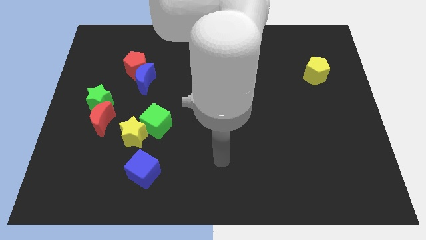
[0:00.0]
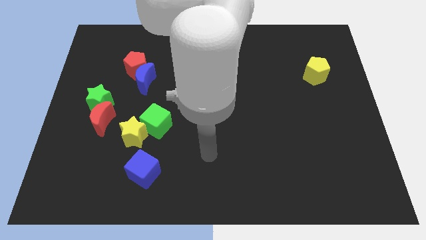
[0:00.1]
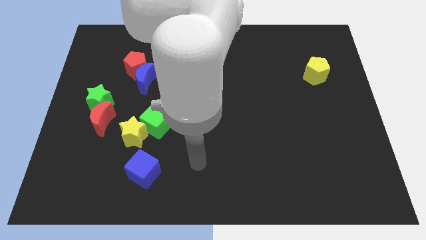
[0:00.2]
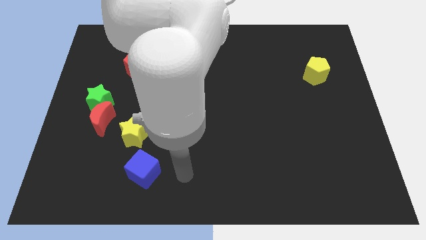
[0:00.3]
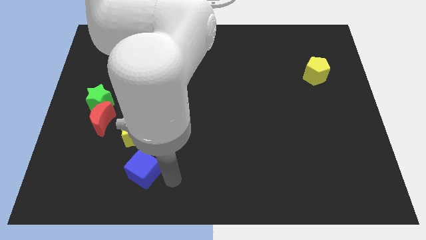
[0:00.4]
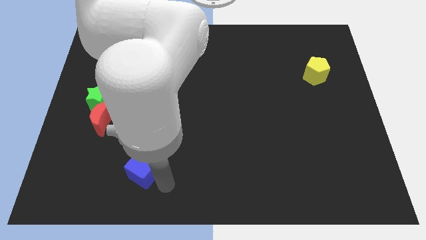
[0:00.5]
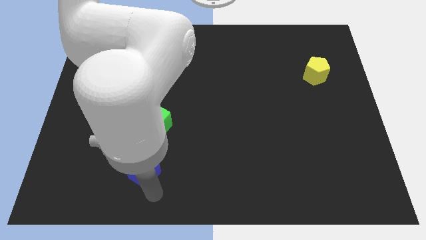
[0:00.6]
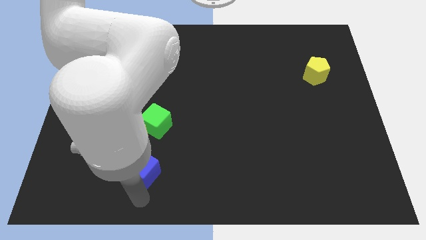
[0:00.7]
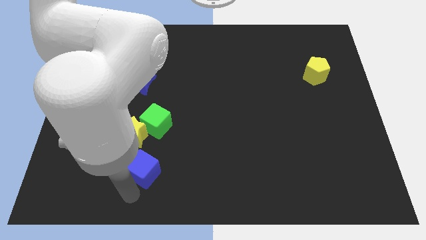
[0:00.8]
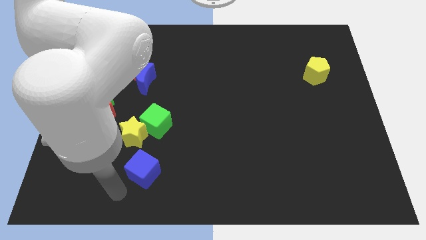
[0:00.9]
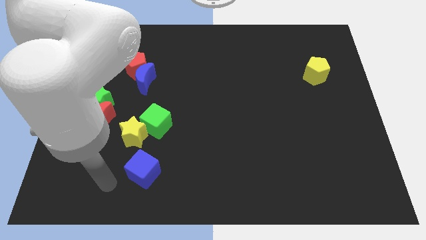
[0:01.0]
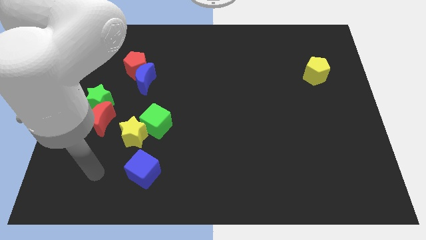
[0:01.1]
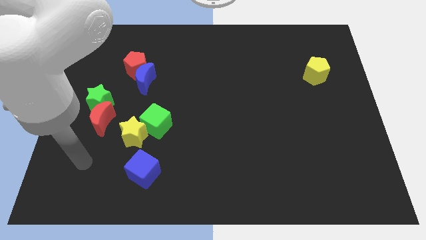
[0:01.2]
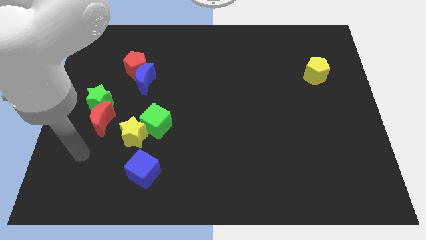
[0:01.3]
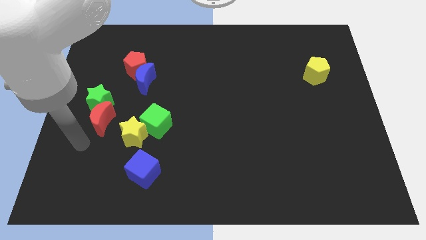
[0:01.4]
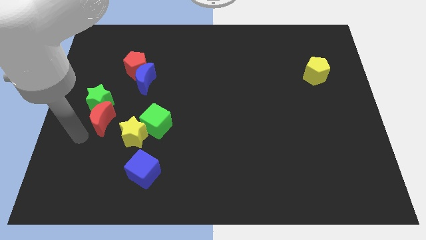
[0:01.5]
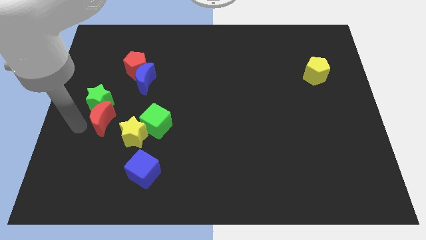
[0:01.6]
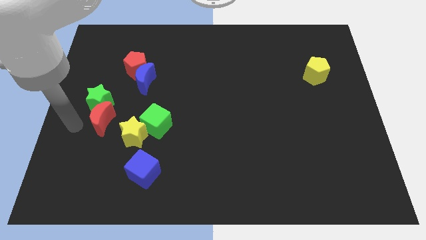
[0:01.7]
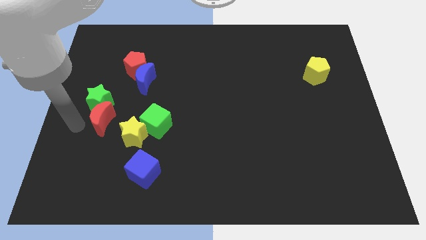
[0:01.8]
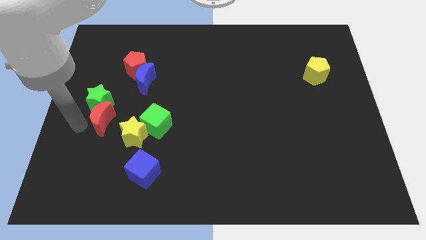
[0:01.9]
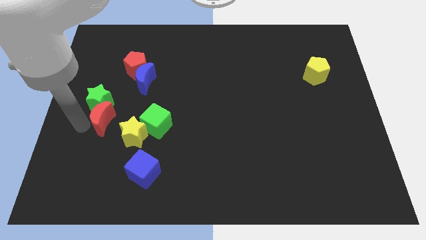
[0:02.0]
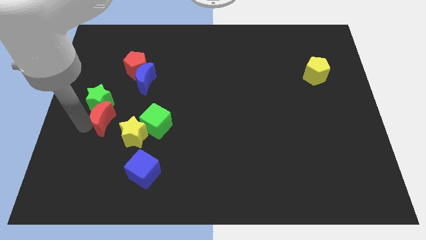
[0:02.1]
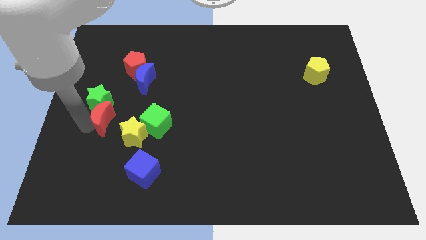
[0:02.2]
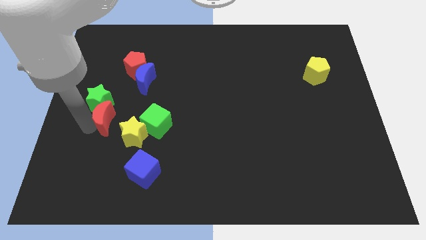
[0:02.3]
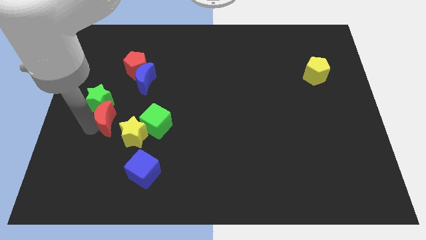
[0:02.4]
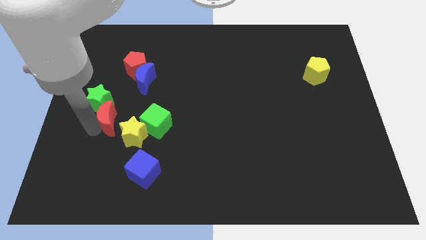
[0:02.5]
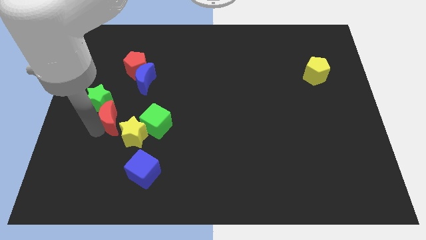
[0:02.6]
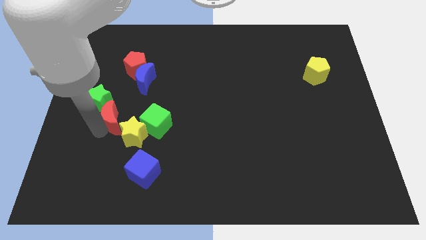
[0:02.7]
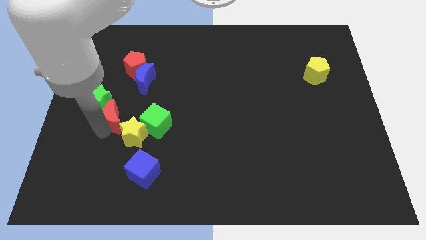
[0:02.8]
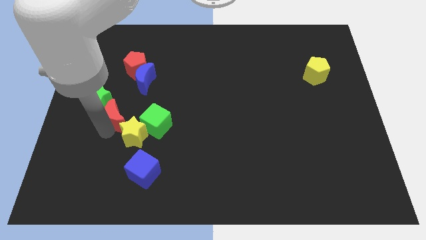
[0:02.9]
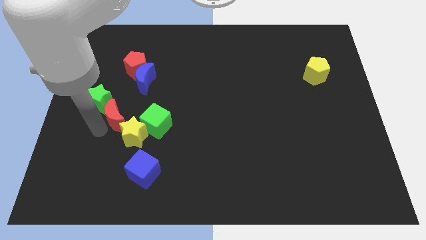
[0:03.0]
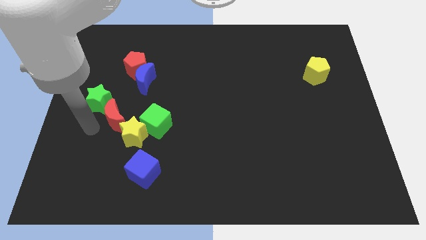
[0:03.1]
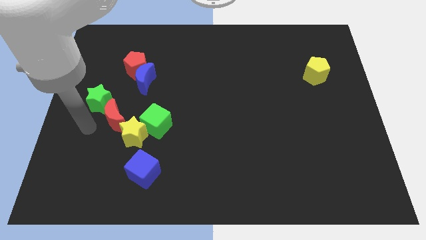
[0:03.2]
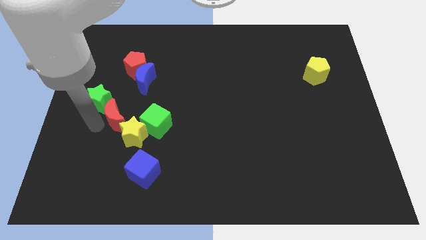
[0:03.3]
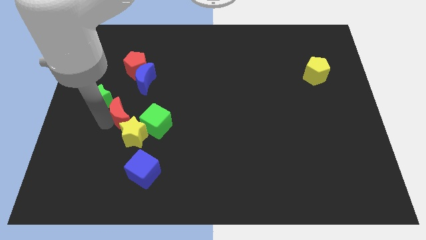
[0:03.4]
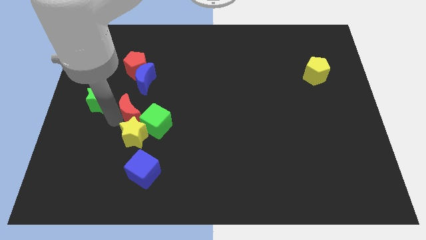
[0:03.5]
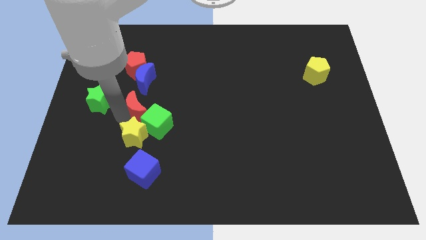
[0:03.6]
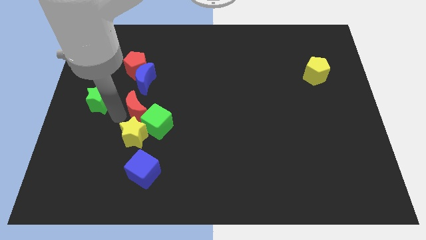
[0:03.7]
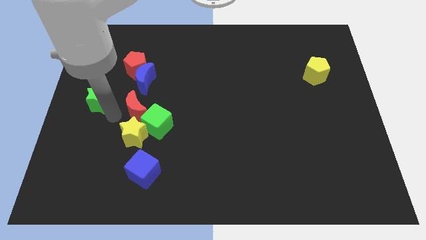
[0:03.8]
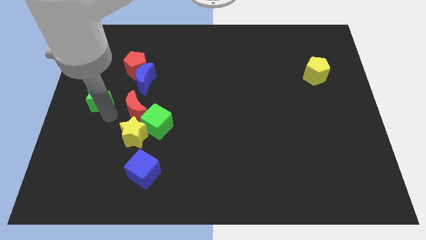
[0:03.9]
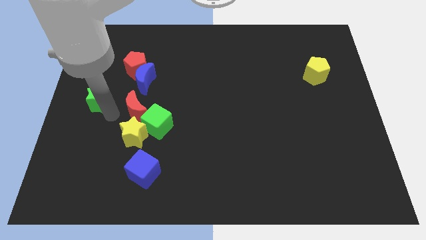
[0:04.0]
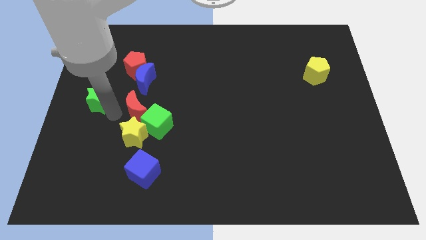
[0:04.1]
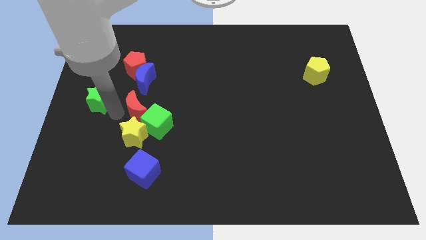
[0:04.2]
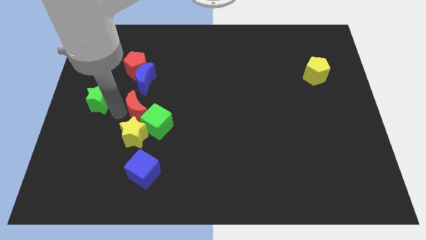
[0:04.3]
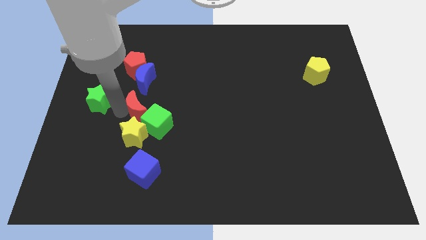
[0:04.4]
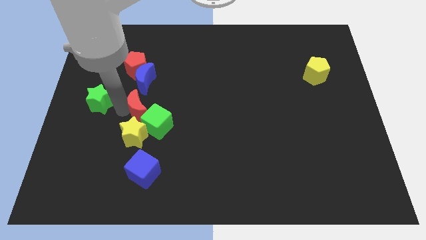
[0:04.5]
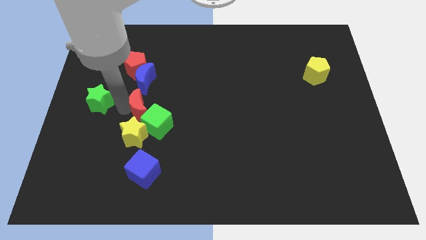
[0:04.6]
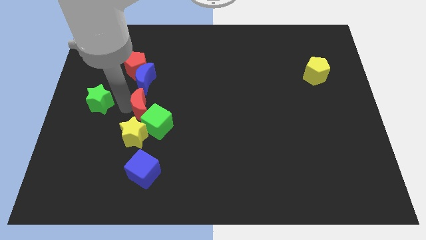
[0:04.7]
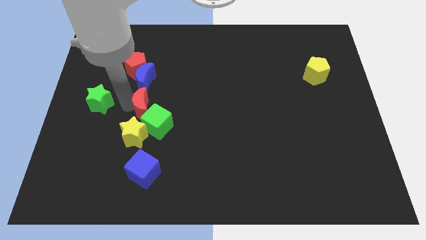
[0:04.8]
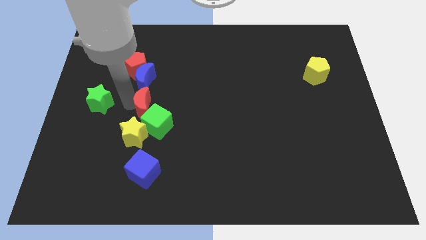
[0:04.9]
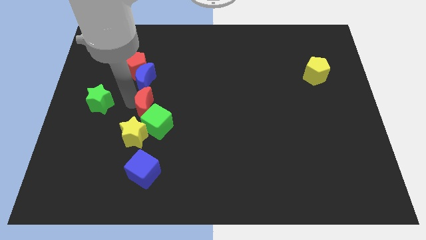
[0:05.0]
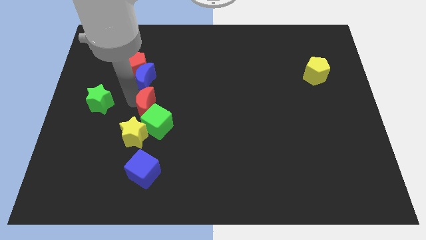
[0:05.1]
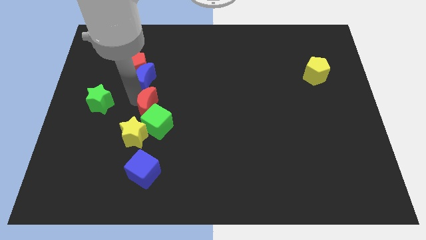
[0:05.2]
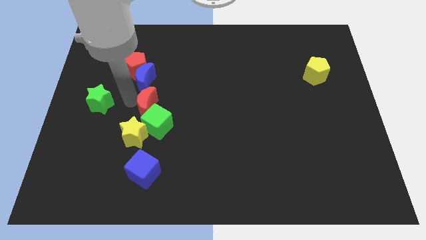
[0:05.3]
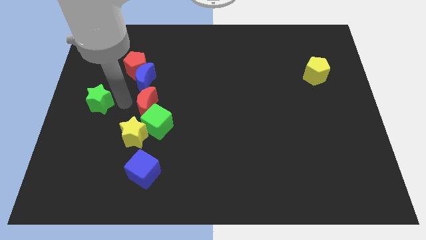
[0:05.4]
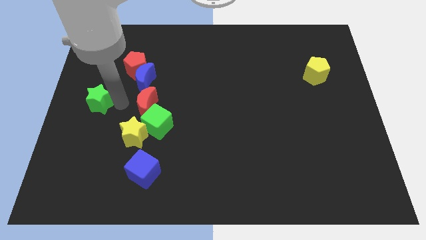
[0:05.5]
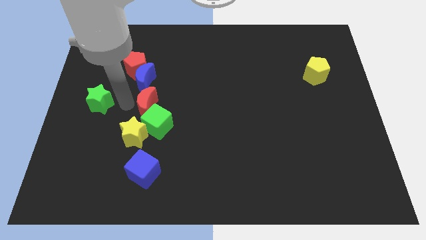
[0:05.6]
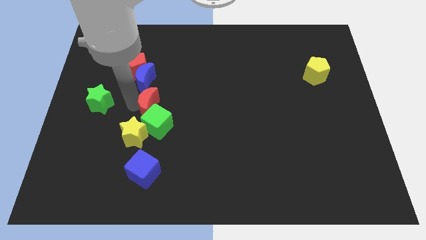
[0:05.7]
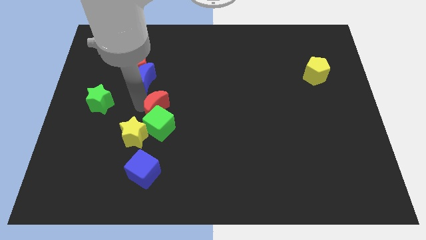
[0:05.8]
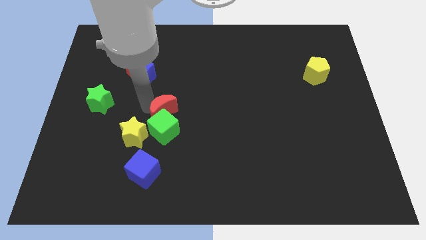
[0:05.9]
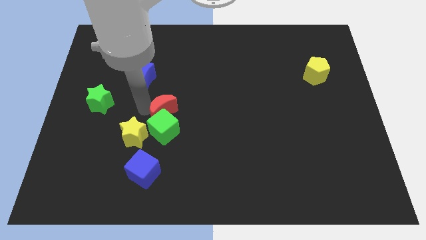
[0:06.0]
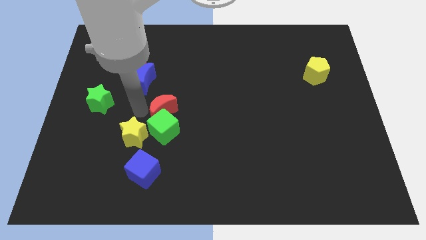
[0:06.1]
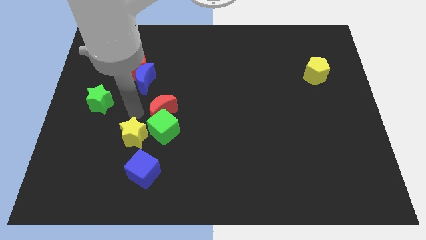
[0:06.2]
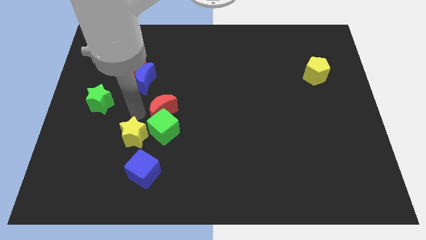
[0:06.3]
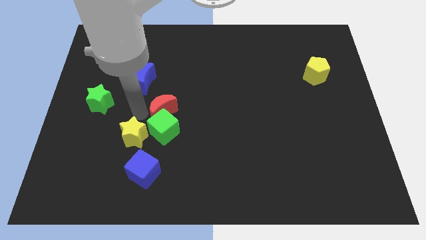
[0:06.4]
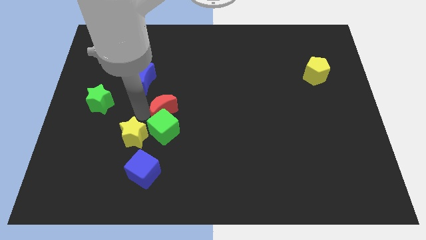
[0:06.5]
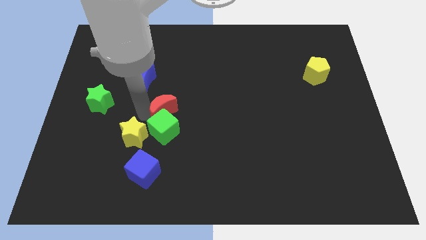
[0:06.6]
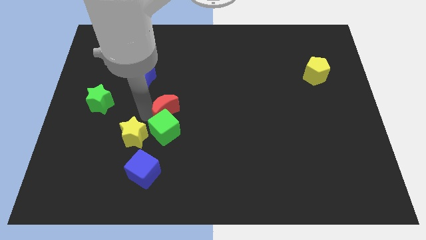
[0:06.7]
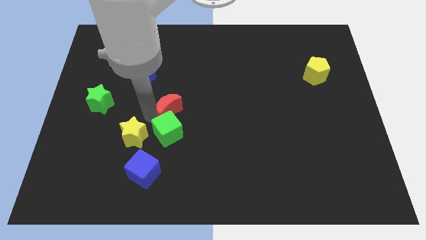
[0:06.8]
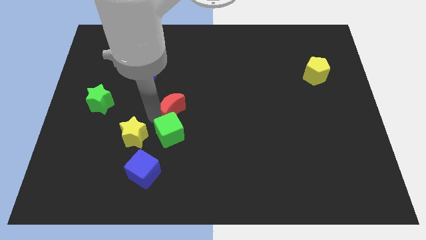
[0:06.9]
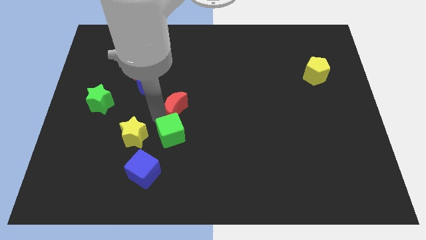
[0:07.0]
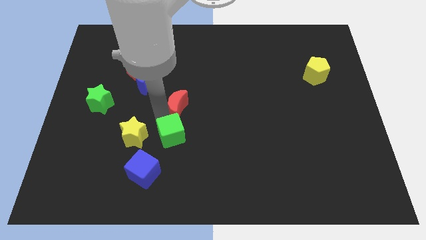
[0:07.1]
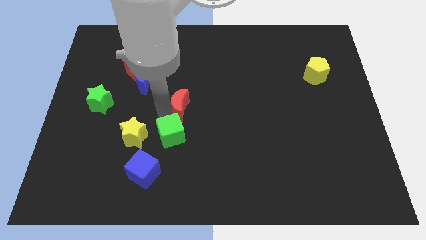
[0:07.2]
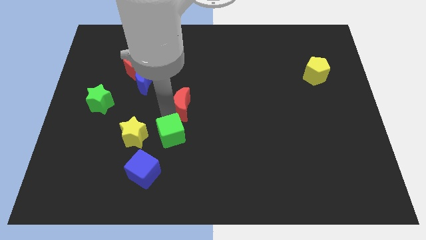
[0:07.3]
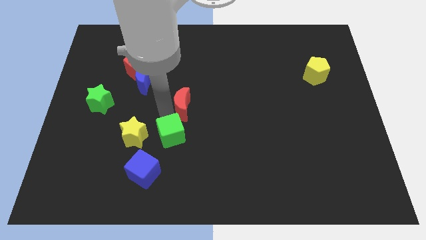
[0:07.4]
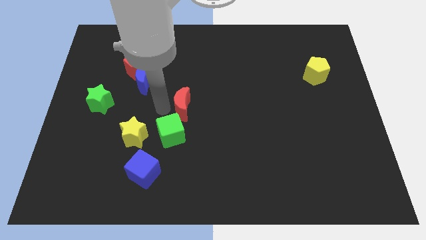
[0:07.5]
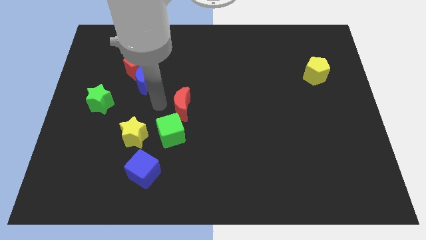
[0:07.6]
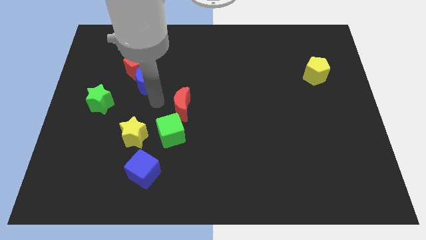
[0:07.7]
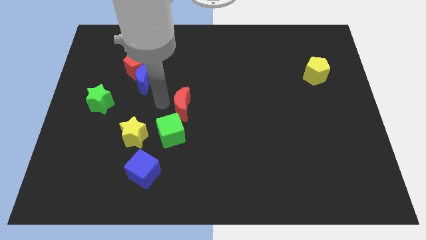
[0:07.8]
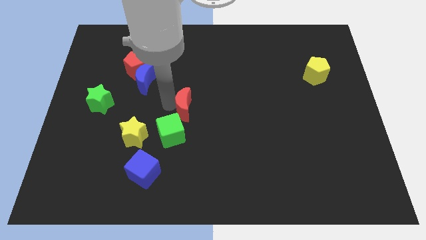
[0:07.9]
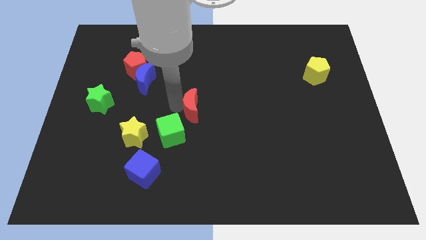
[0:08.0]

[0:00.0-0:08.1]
move the red moon right

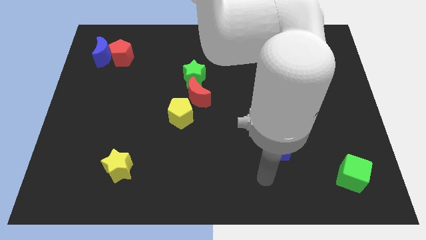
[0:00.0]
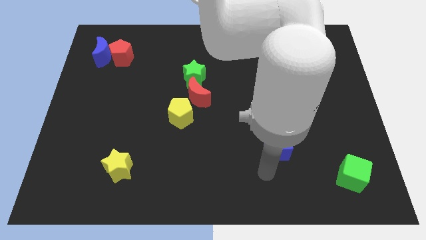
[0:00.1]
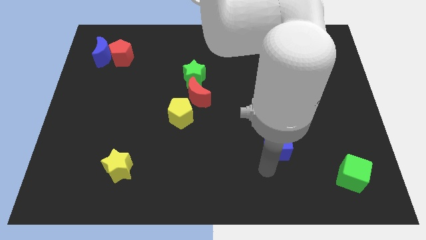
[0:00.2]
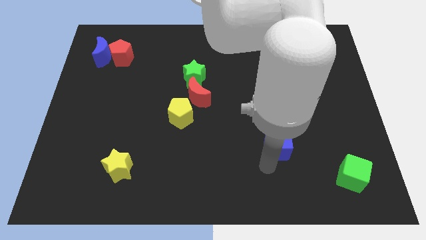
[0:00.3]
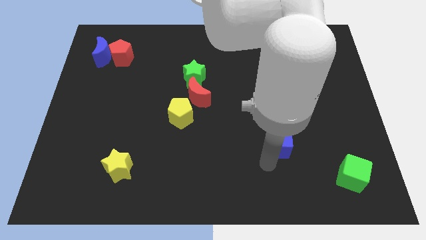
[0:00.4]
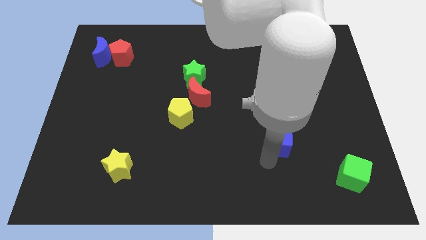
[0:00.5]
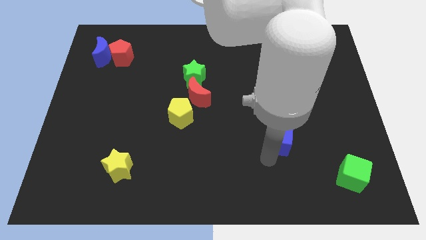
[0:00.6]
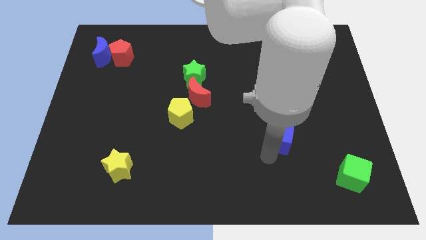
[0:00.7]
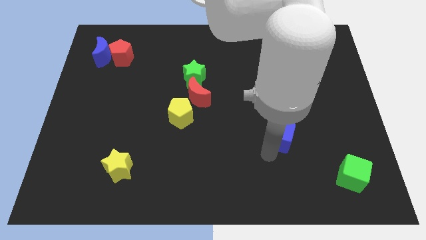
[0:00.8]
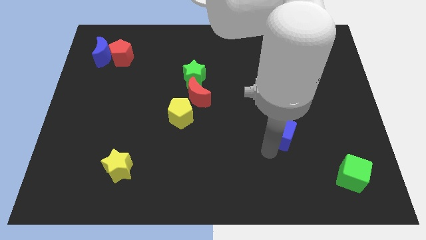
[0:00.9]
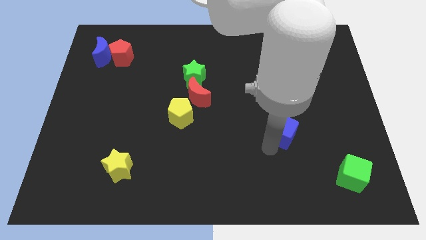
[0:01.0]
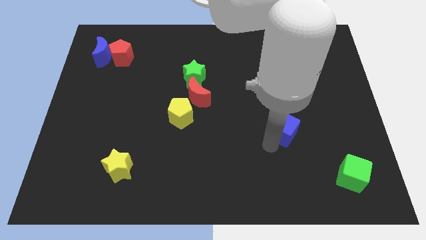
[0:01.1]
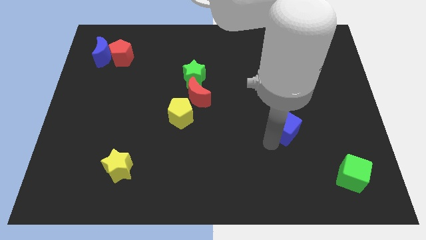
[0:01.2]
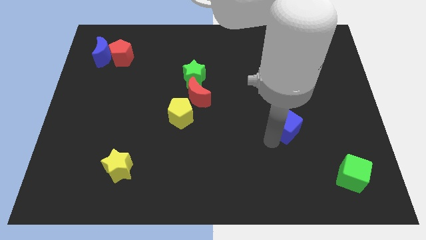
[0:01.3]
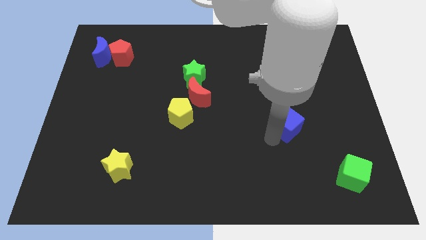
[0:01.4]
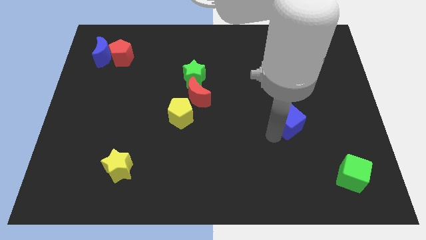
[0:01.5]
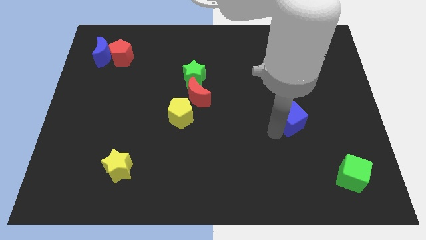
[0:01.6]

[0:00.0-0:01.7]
slightly move the blue cube up and then right
